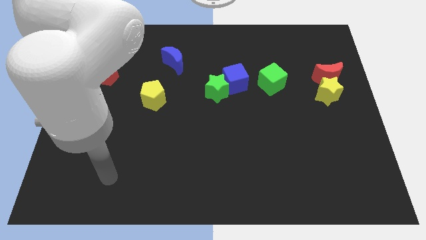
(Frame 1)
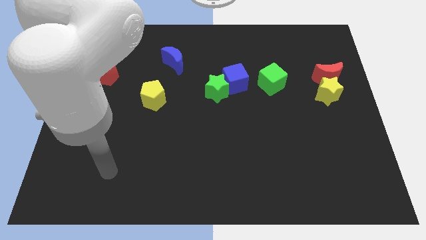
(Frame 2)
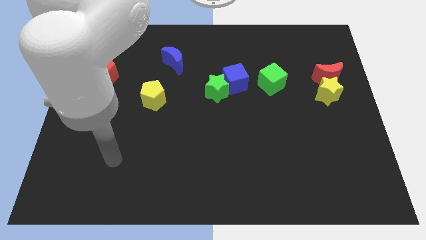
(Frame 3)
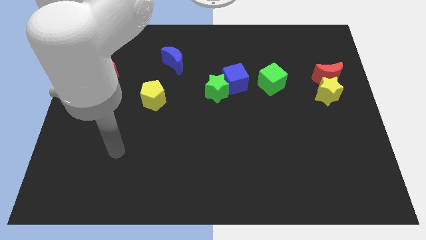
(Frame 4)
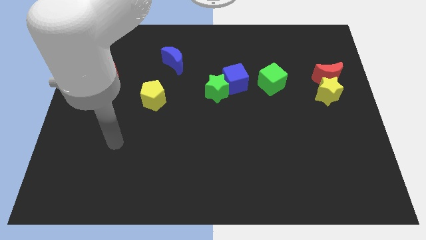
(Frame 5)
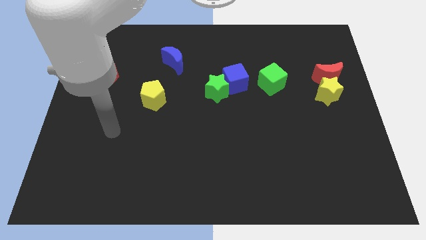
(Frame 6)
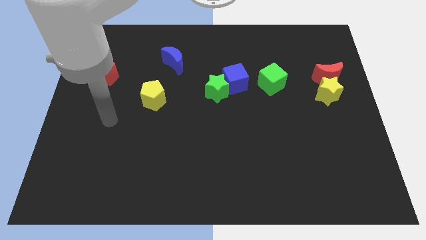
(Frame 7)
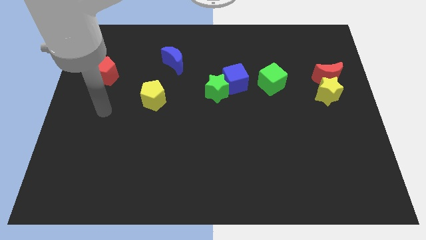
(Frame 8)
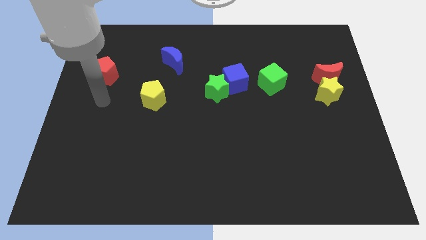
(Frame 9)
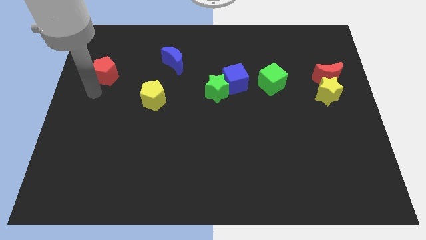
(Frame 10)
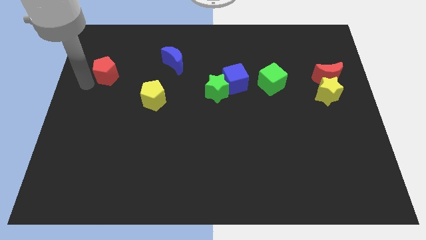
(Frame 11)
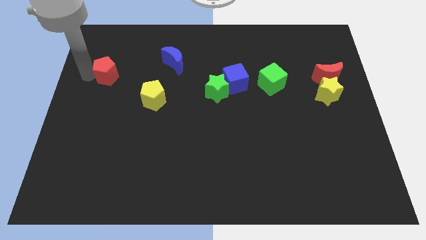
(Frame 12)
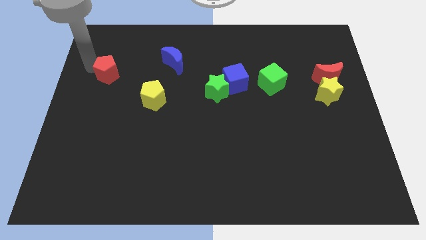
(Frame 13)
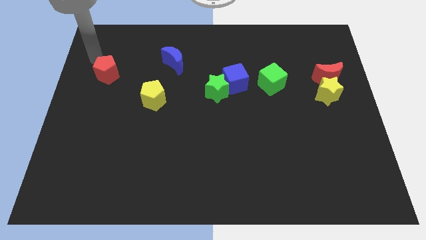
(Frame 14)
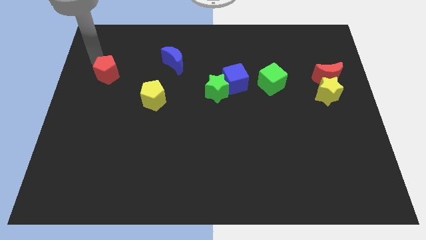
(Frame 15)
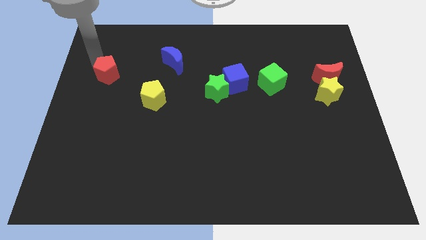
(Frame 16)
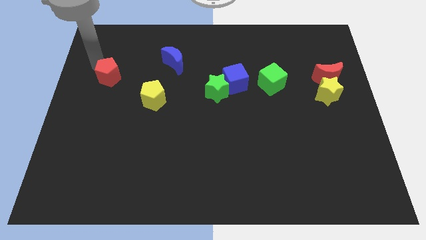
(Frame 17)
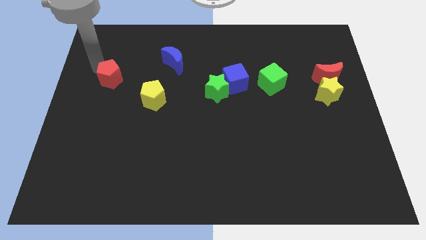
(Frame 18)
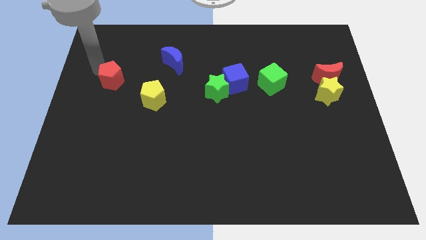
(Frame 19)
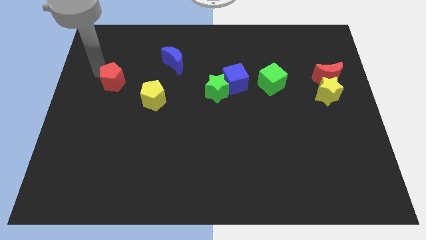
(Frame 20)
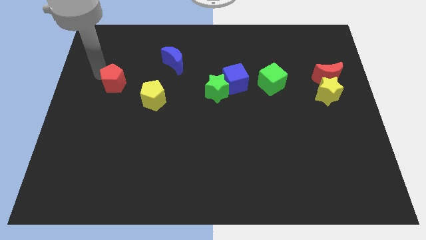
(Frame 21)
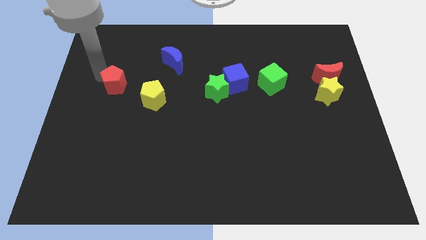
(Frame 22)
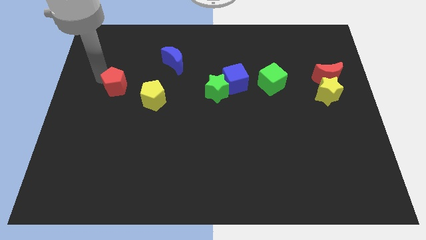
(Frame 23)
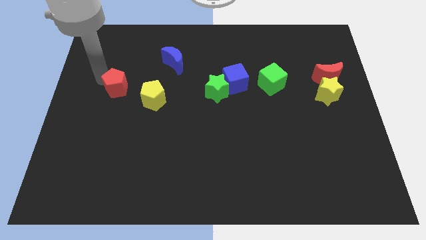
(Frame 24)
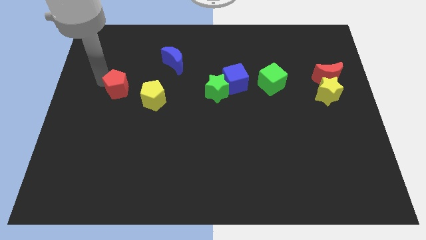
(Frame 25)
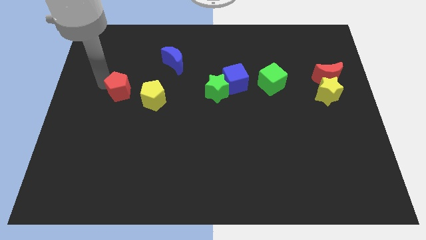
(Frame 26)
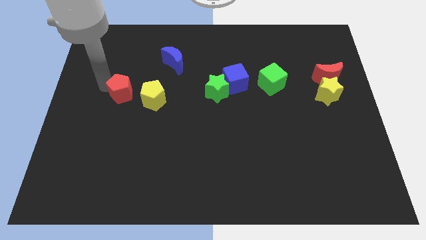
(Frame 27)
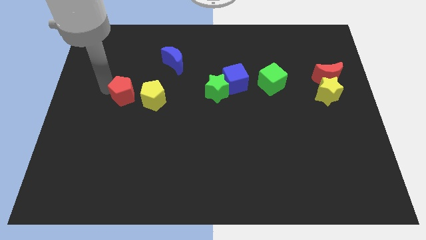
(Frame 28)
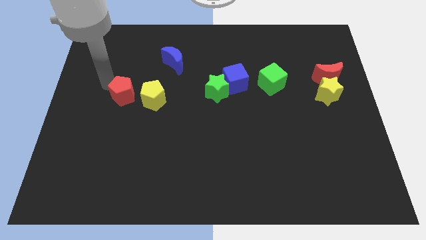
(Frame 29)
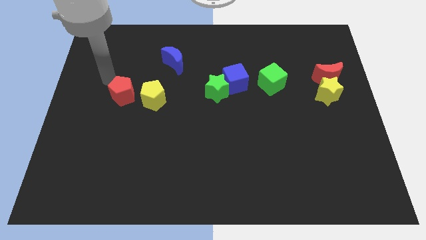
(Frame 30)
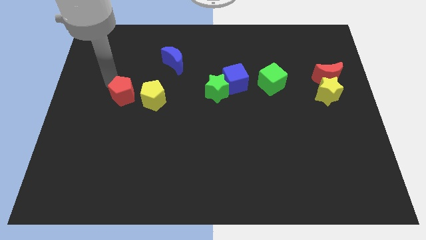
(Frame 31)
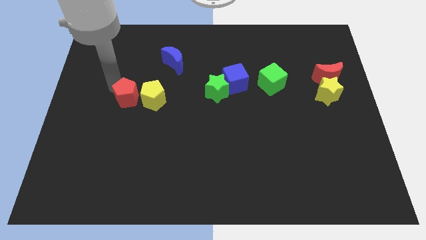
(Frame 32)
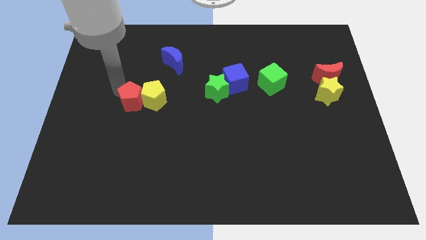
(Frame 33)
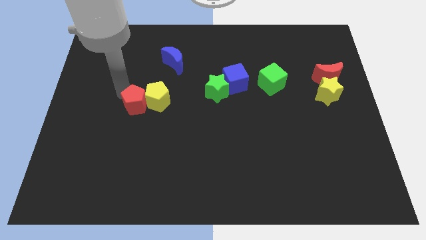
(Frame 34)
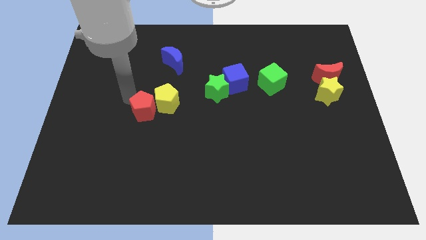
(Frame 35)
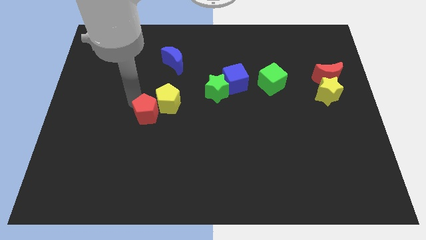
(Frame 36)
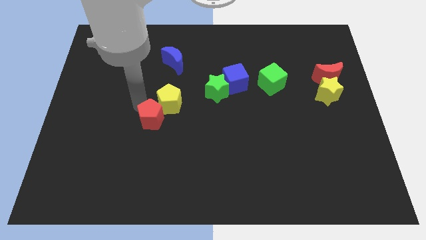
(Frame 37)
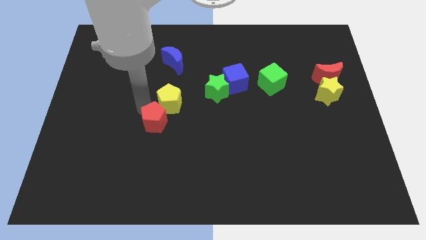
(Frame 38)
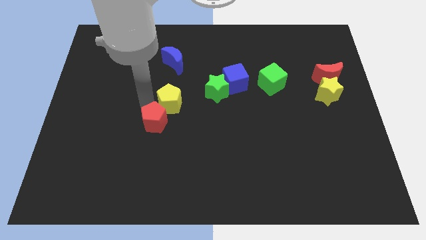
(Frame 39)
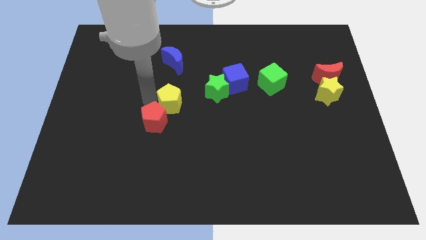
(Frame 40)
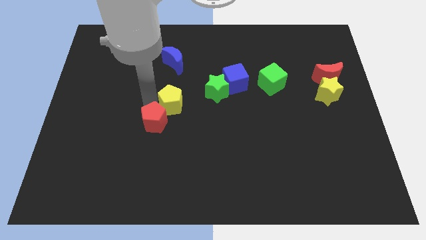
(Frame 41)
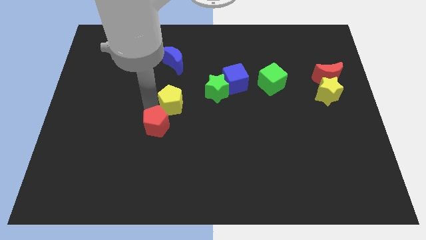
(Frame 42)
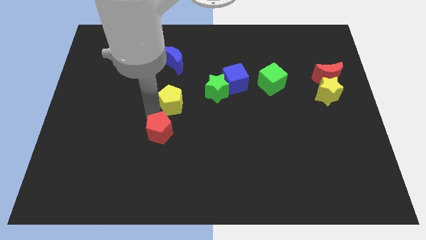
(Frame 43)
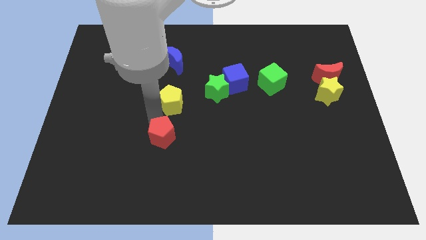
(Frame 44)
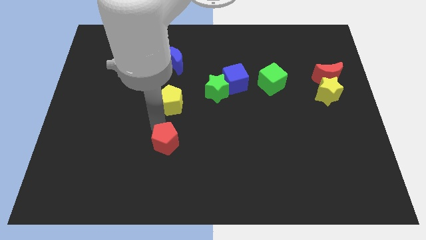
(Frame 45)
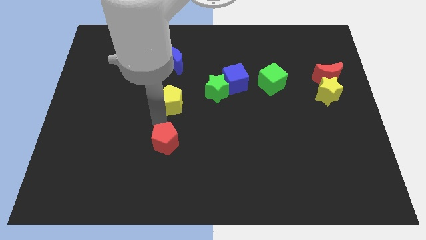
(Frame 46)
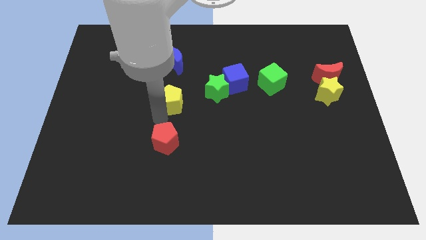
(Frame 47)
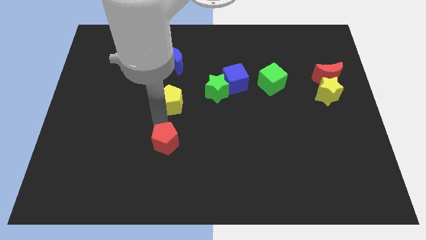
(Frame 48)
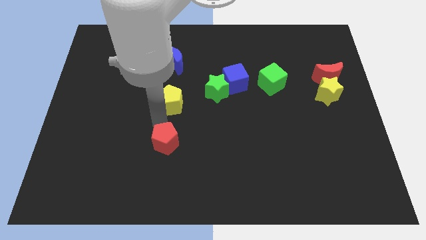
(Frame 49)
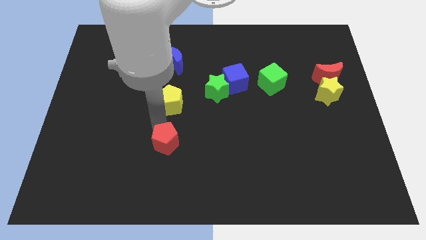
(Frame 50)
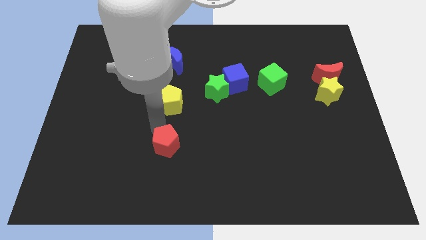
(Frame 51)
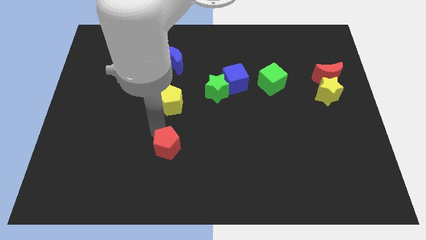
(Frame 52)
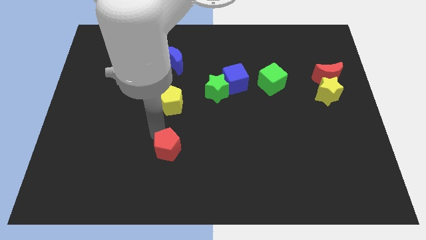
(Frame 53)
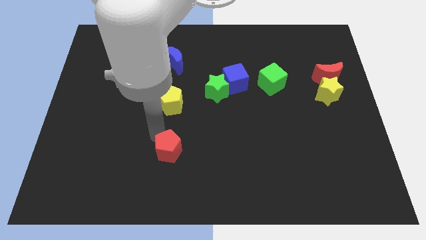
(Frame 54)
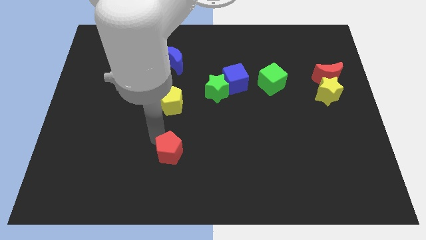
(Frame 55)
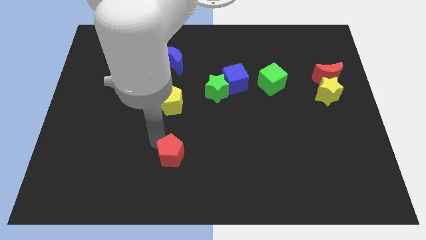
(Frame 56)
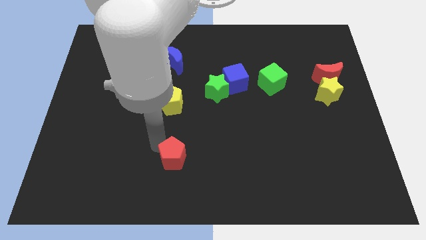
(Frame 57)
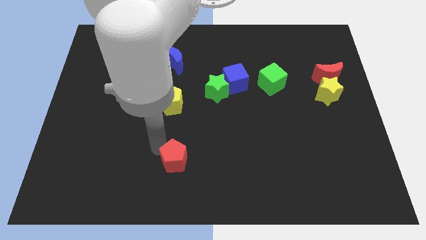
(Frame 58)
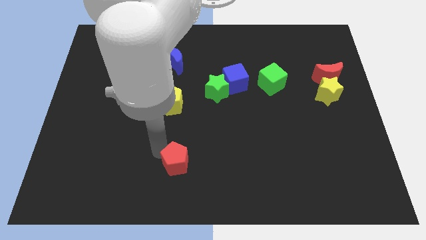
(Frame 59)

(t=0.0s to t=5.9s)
slide the red pentagon to the bottom side
